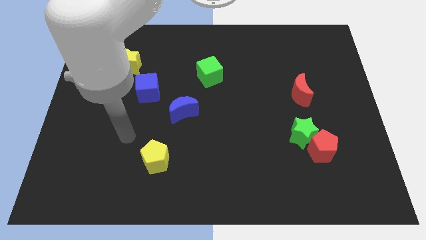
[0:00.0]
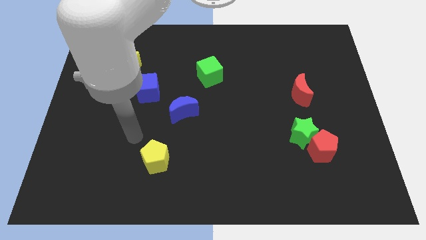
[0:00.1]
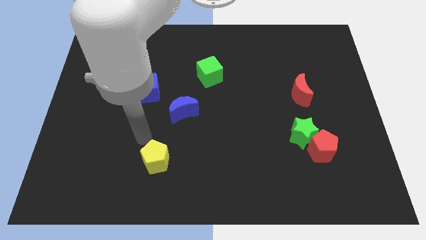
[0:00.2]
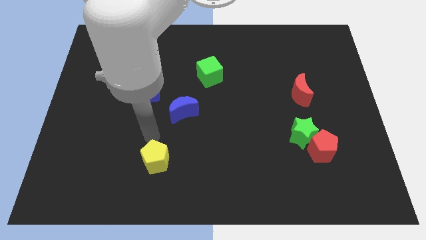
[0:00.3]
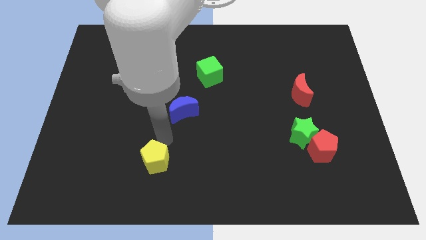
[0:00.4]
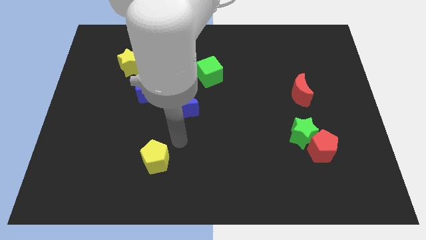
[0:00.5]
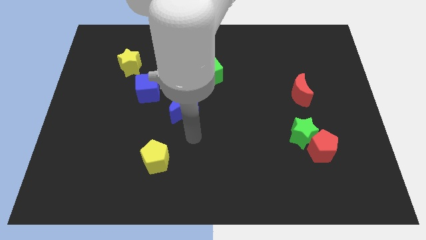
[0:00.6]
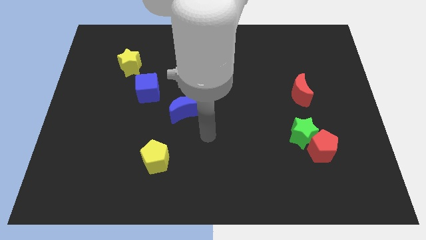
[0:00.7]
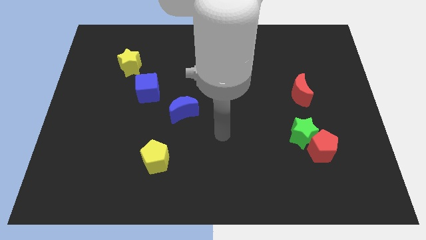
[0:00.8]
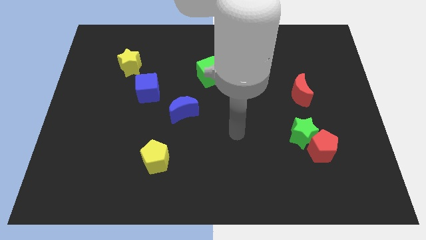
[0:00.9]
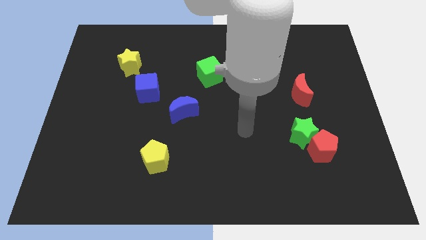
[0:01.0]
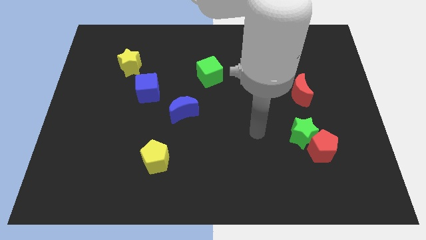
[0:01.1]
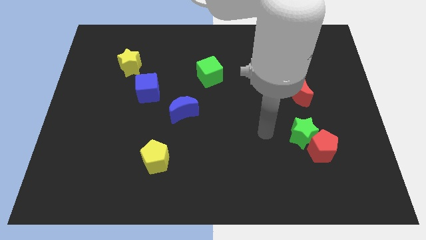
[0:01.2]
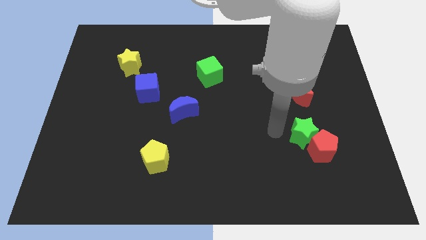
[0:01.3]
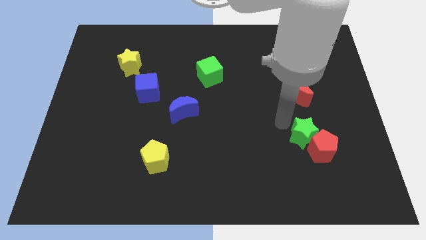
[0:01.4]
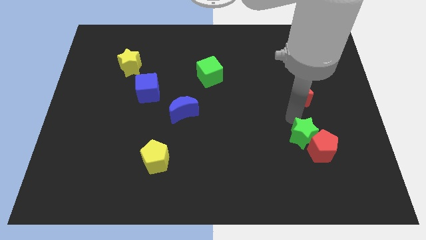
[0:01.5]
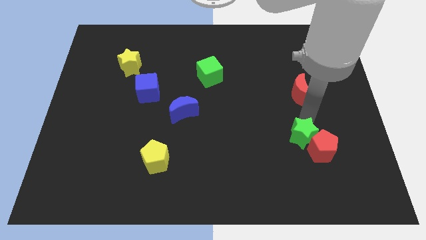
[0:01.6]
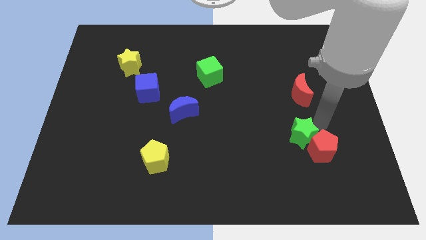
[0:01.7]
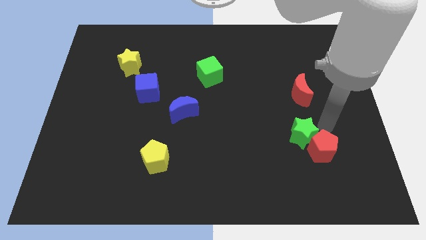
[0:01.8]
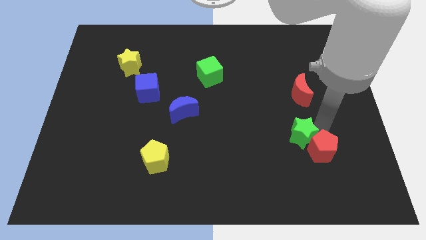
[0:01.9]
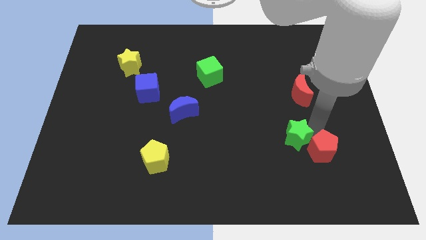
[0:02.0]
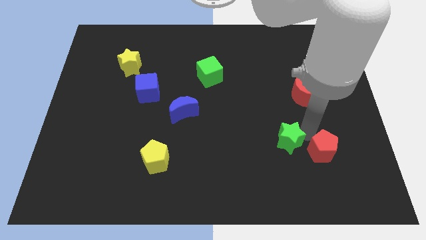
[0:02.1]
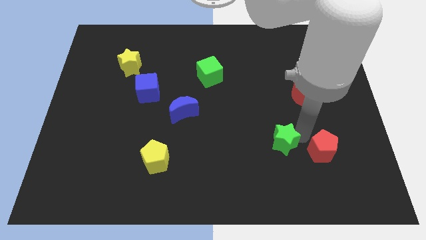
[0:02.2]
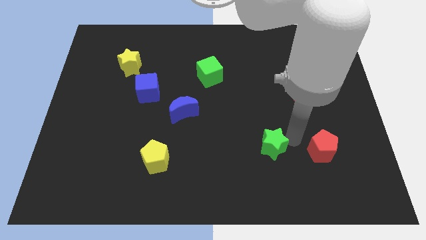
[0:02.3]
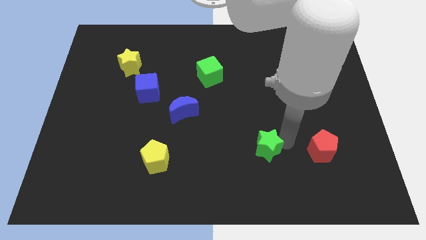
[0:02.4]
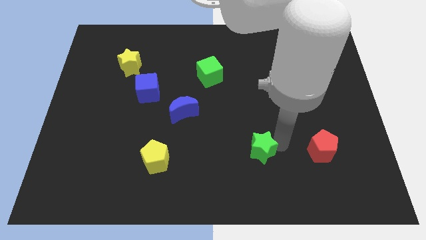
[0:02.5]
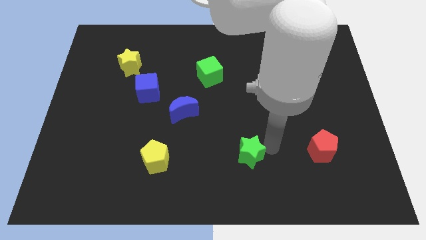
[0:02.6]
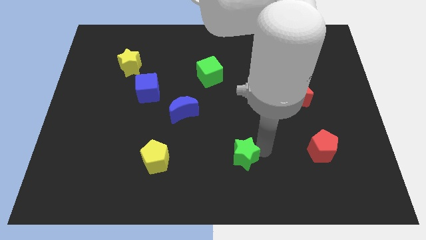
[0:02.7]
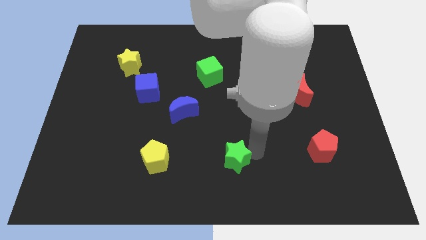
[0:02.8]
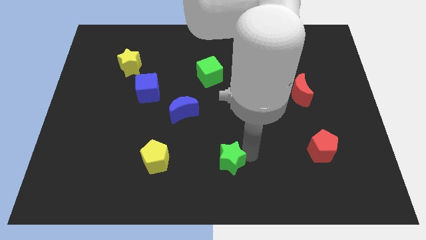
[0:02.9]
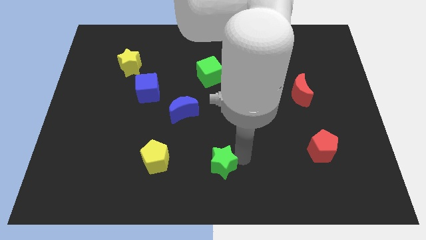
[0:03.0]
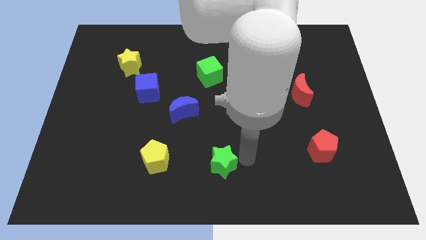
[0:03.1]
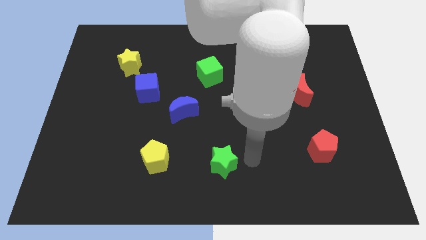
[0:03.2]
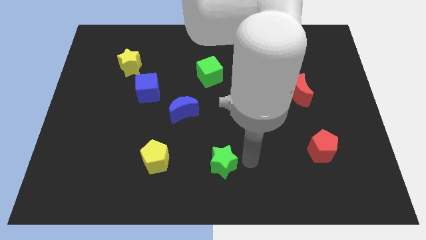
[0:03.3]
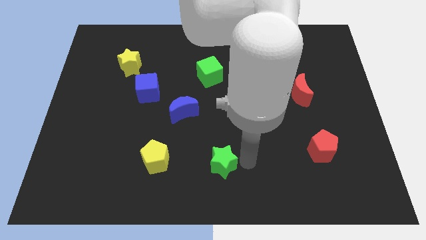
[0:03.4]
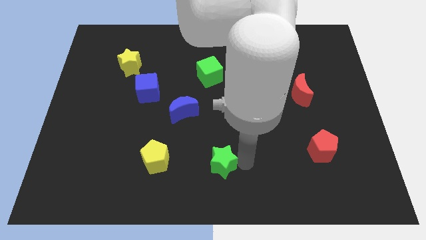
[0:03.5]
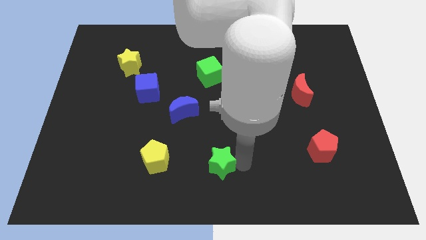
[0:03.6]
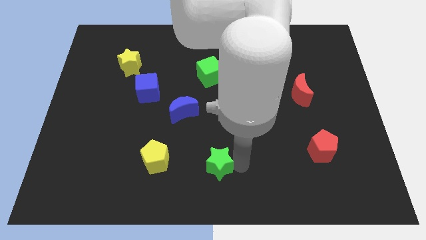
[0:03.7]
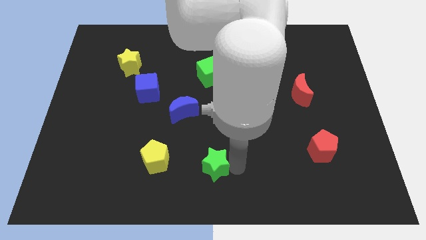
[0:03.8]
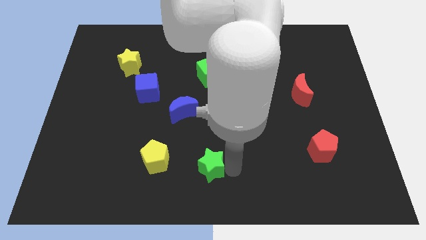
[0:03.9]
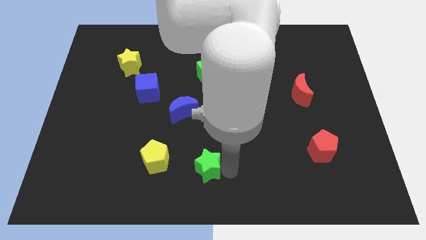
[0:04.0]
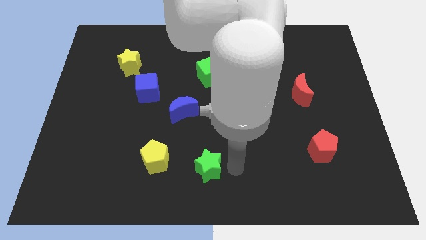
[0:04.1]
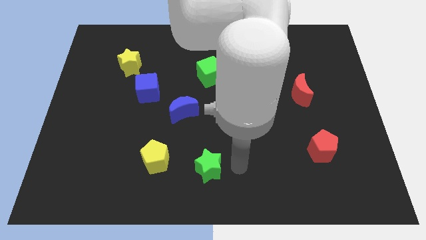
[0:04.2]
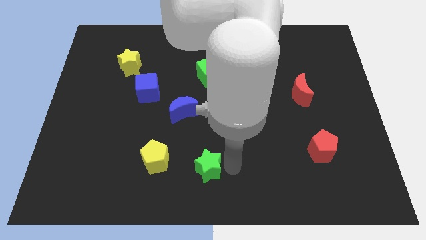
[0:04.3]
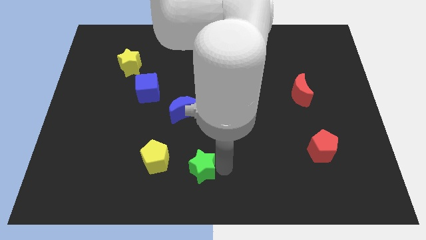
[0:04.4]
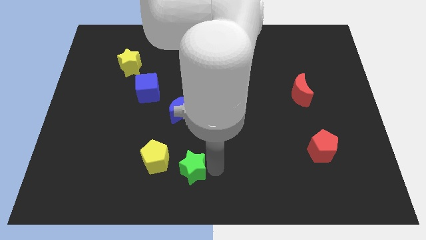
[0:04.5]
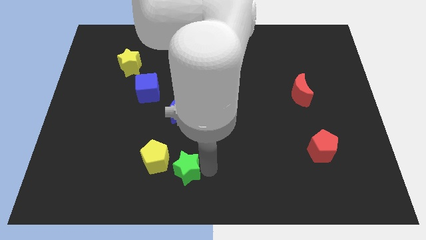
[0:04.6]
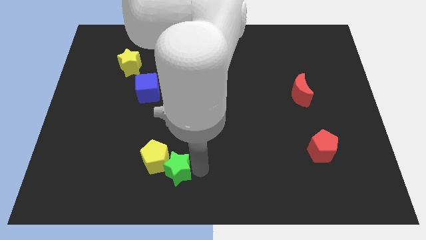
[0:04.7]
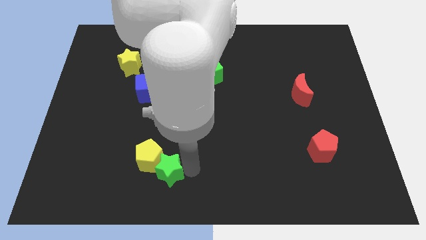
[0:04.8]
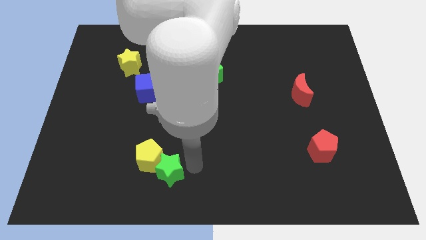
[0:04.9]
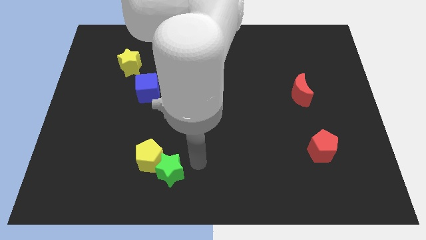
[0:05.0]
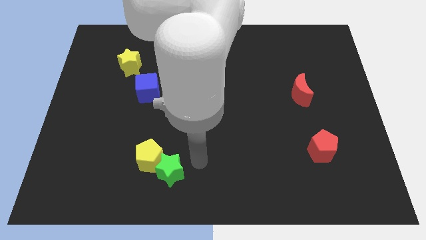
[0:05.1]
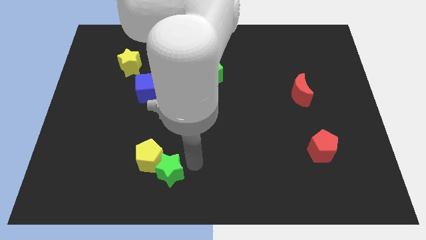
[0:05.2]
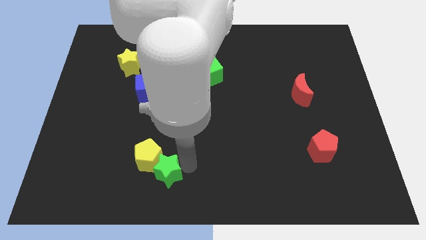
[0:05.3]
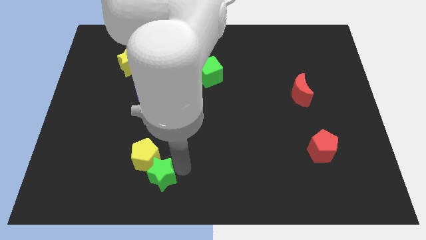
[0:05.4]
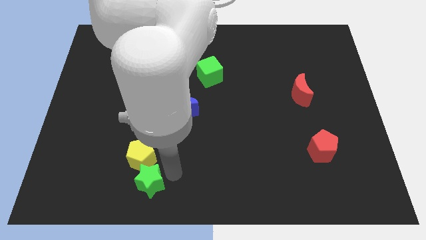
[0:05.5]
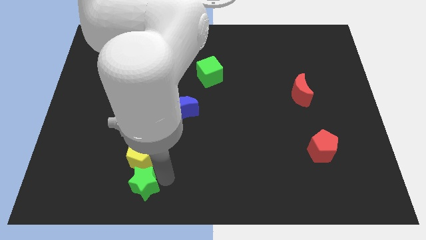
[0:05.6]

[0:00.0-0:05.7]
slide the green star to the bottom left side of the yellow pentagon

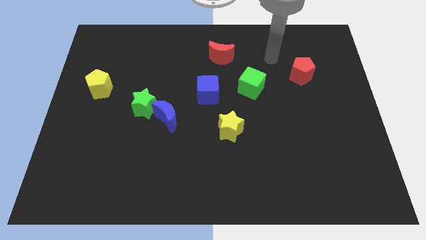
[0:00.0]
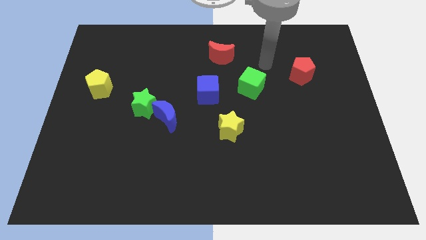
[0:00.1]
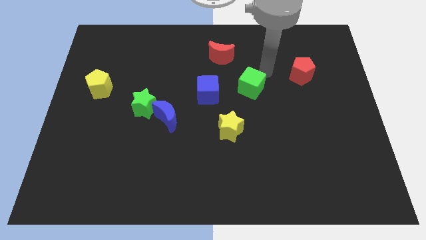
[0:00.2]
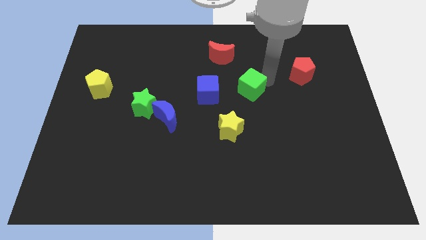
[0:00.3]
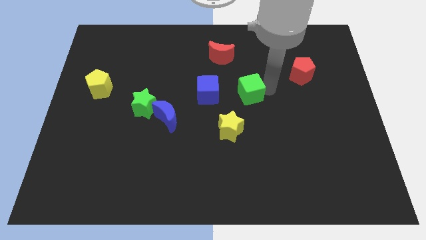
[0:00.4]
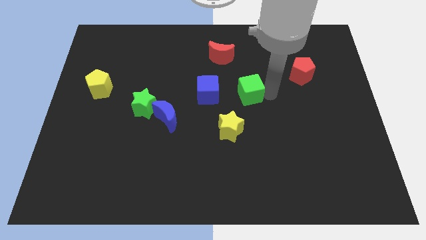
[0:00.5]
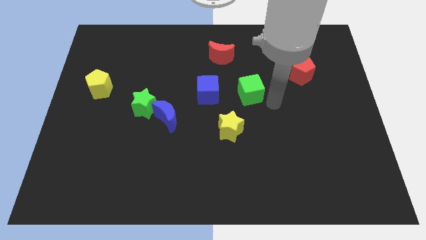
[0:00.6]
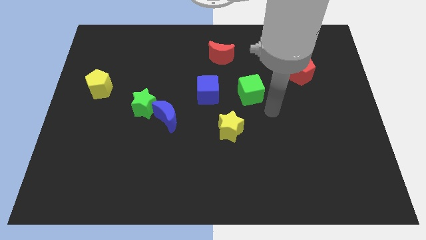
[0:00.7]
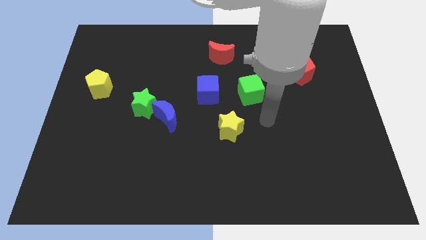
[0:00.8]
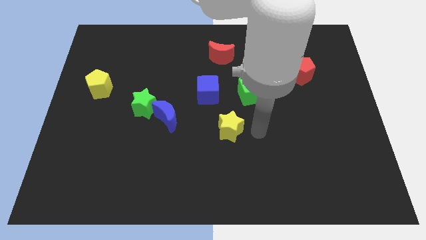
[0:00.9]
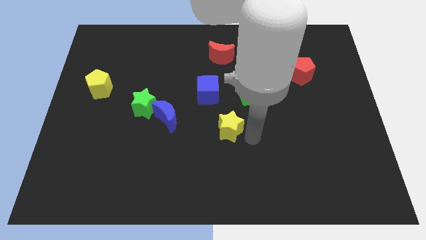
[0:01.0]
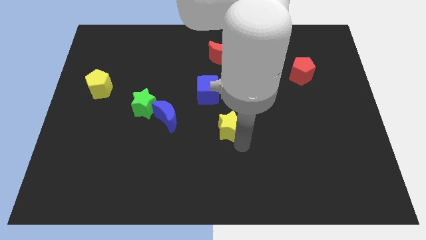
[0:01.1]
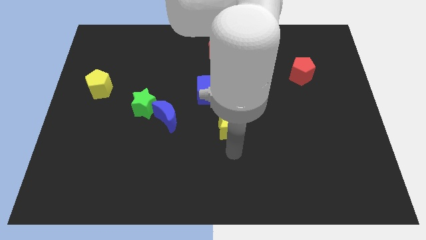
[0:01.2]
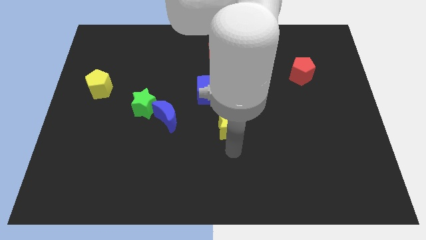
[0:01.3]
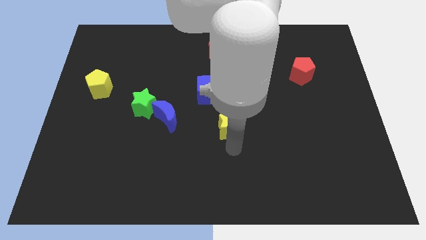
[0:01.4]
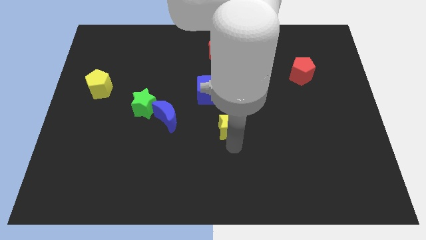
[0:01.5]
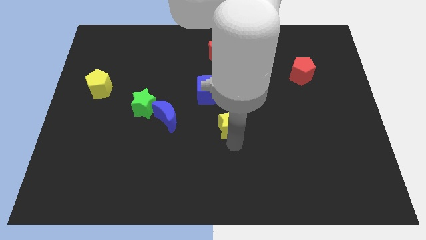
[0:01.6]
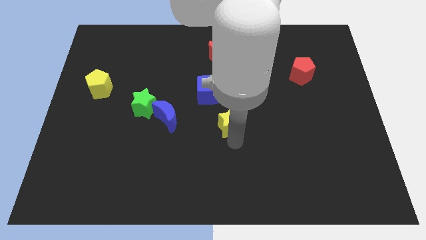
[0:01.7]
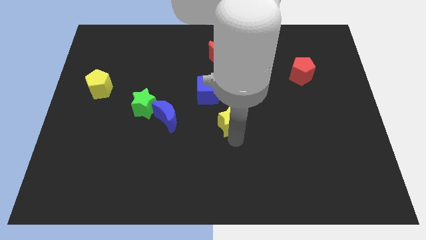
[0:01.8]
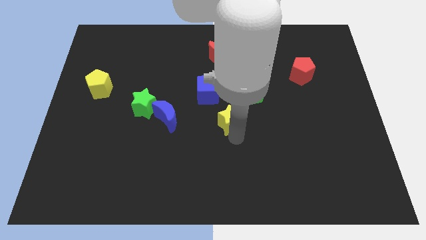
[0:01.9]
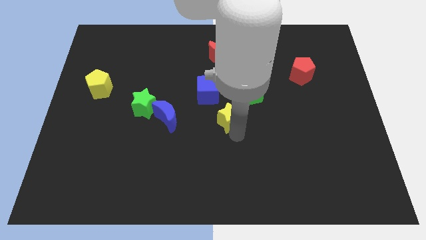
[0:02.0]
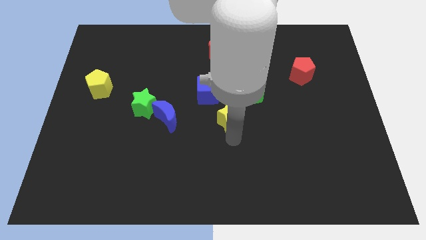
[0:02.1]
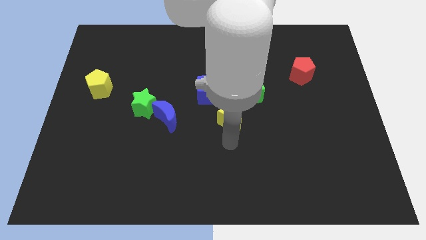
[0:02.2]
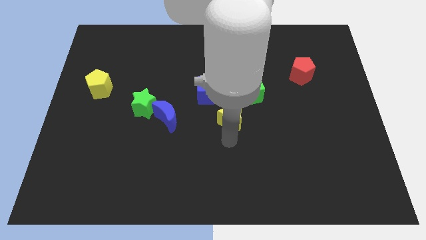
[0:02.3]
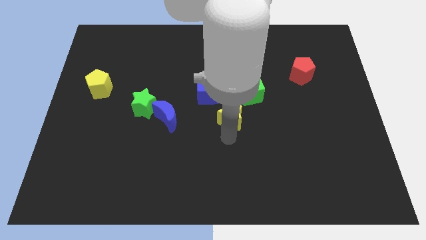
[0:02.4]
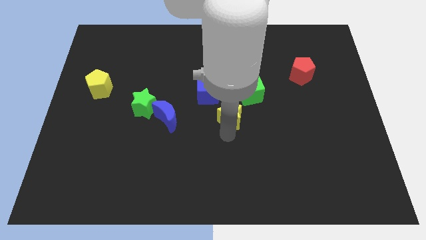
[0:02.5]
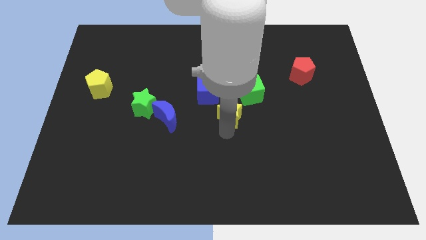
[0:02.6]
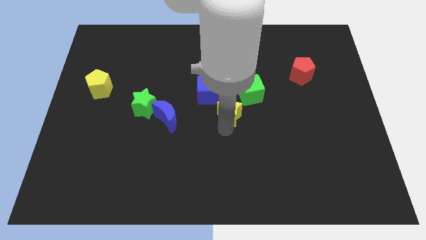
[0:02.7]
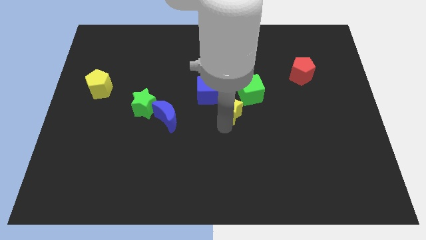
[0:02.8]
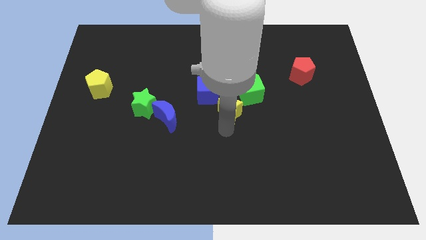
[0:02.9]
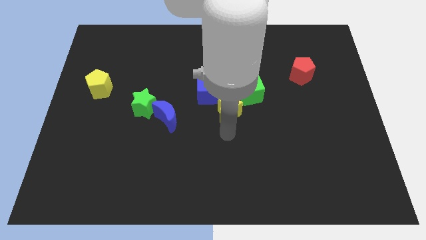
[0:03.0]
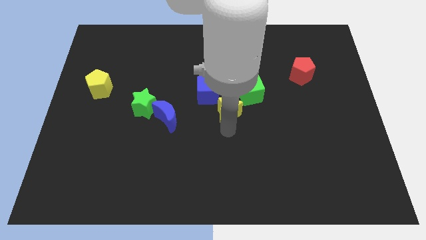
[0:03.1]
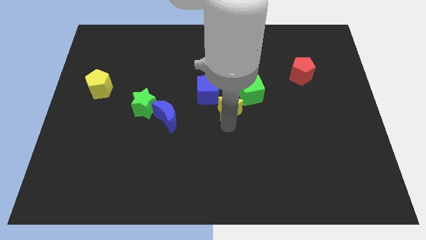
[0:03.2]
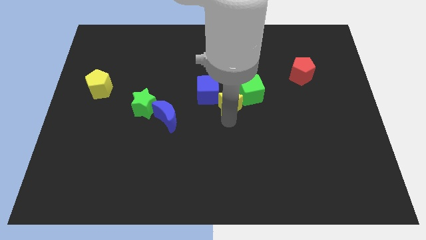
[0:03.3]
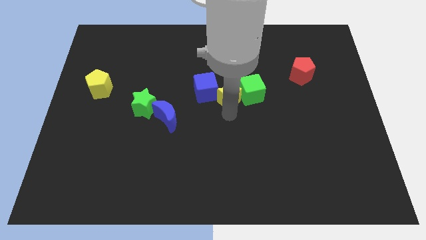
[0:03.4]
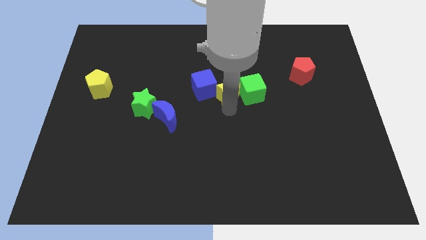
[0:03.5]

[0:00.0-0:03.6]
put the yellow star to the top left of the green cube
